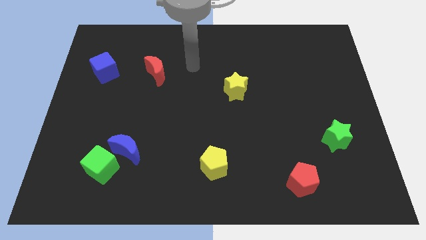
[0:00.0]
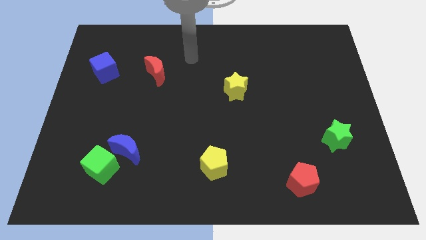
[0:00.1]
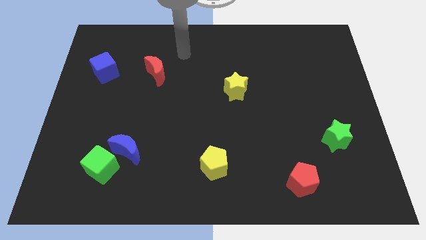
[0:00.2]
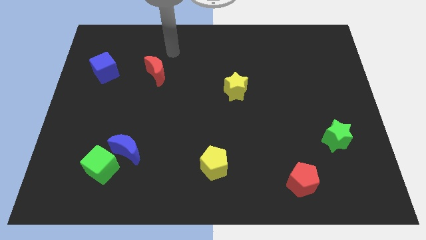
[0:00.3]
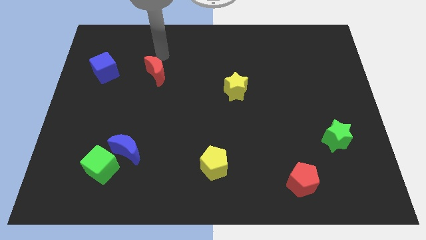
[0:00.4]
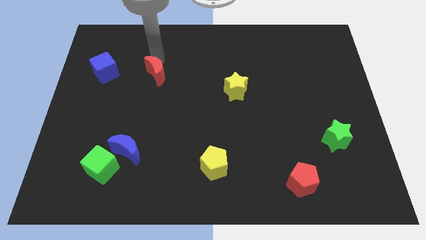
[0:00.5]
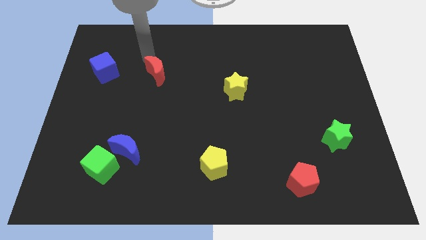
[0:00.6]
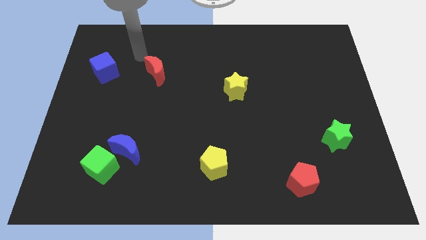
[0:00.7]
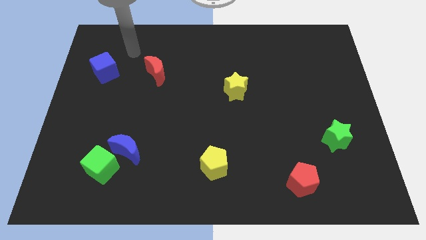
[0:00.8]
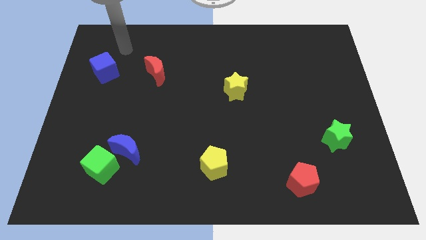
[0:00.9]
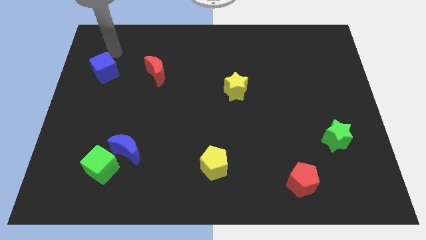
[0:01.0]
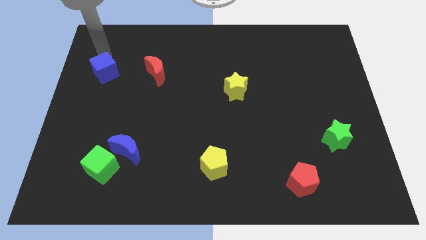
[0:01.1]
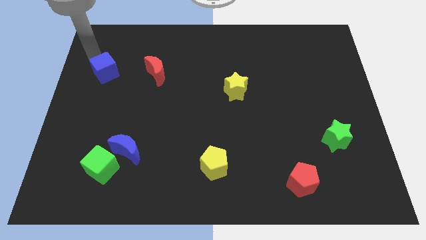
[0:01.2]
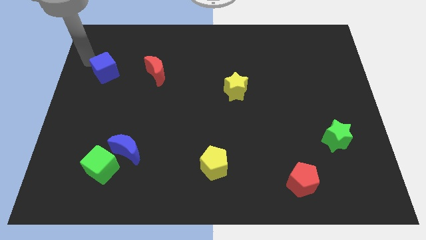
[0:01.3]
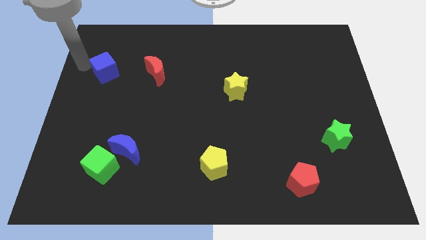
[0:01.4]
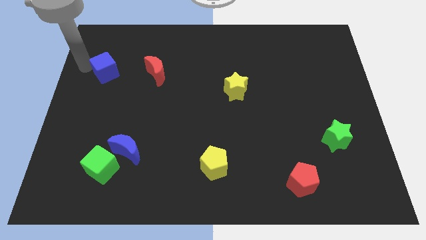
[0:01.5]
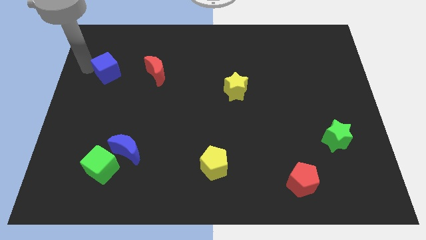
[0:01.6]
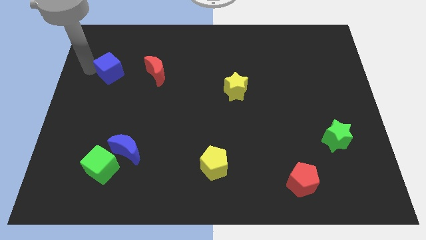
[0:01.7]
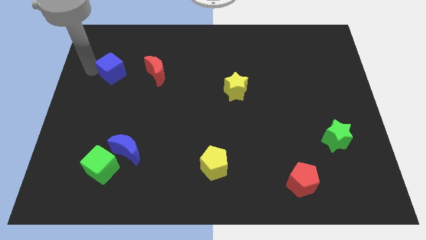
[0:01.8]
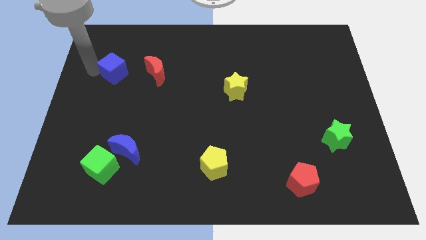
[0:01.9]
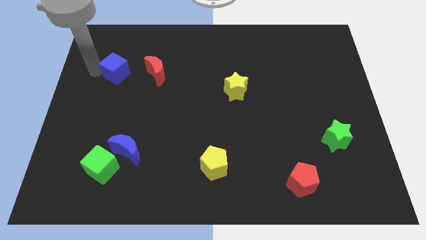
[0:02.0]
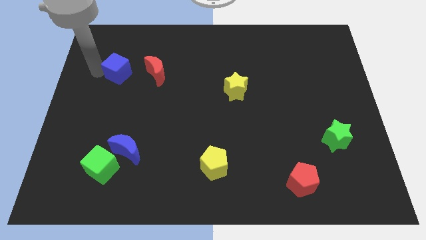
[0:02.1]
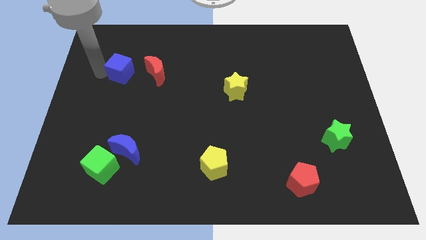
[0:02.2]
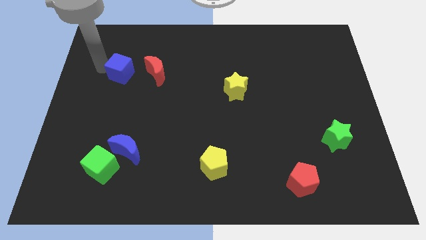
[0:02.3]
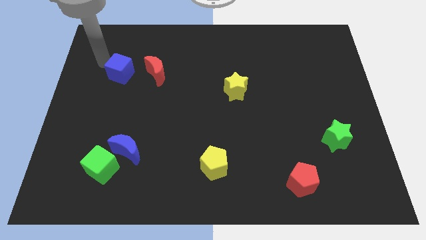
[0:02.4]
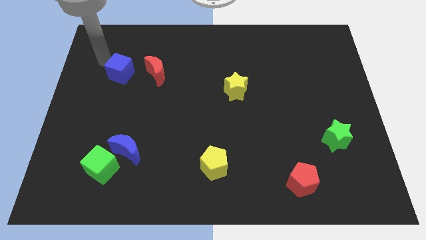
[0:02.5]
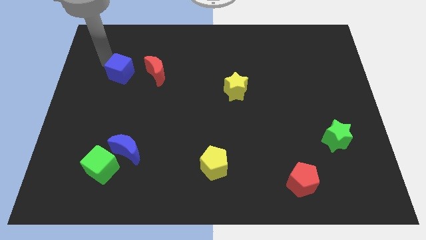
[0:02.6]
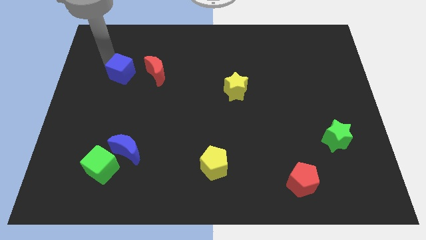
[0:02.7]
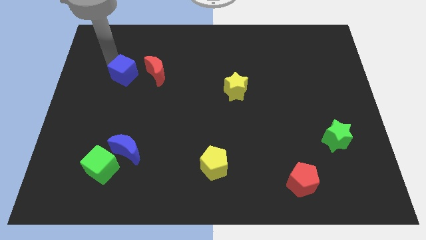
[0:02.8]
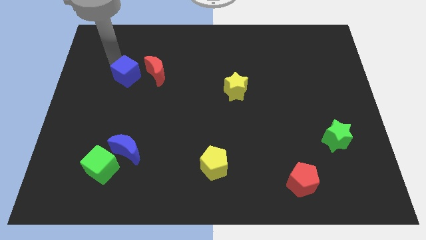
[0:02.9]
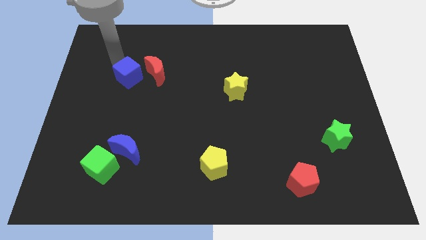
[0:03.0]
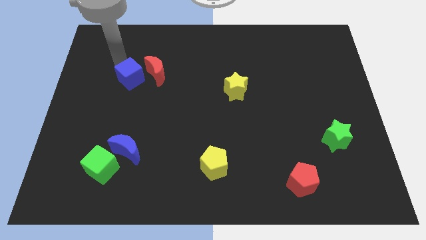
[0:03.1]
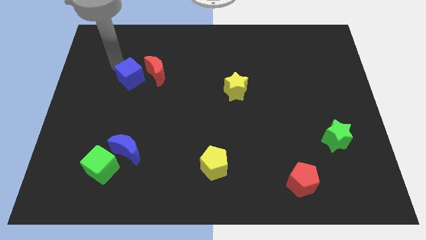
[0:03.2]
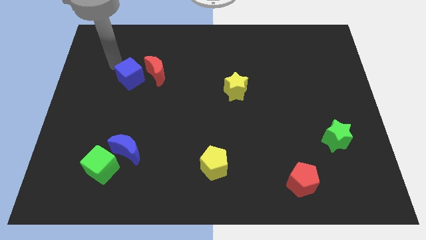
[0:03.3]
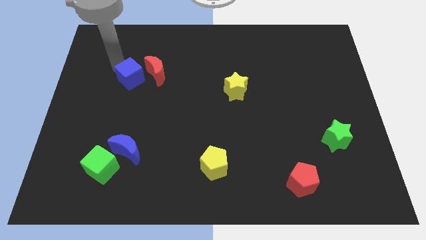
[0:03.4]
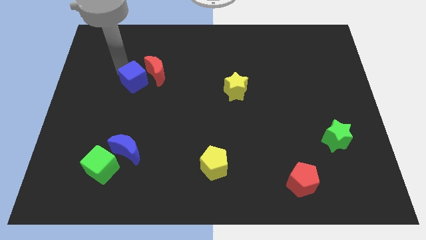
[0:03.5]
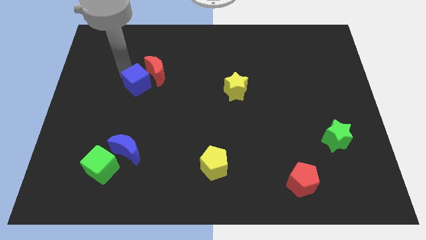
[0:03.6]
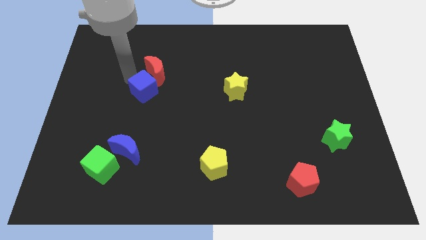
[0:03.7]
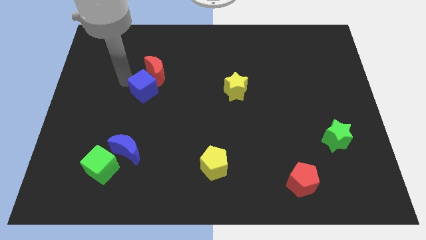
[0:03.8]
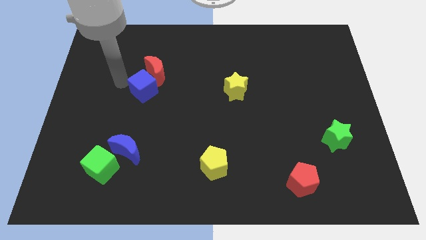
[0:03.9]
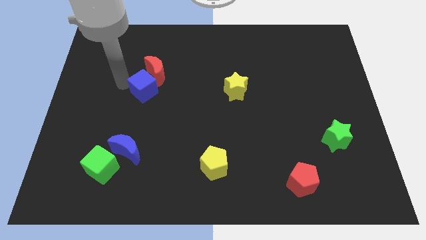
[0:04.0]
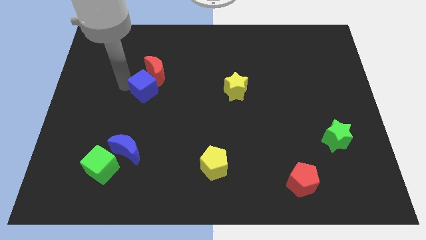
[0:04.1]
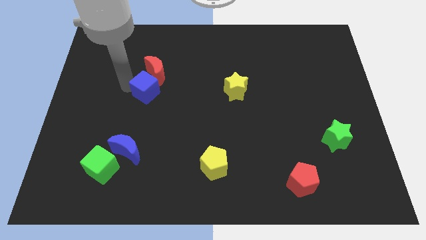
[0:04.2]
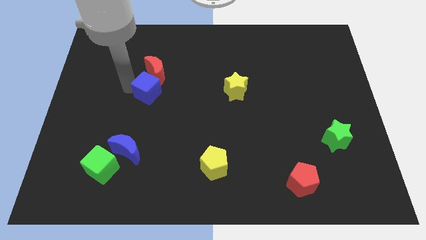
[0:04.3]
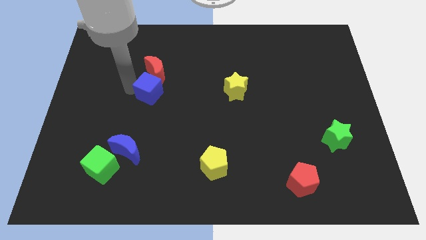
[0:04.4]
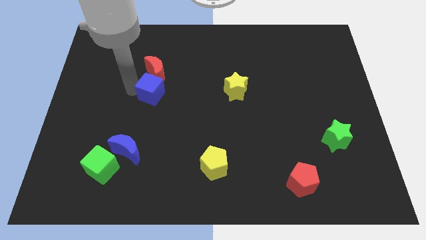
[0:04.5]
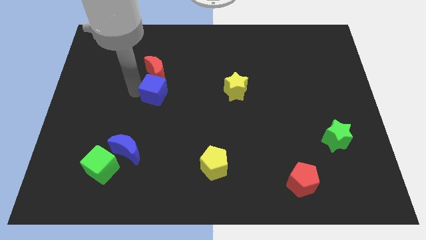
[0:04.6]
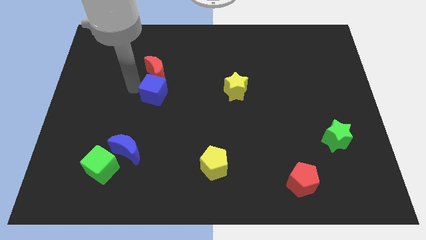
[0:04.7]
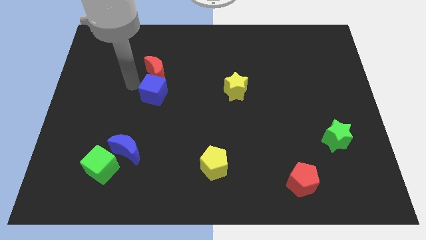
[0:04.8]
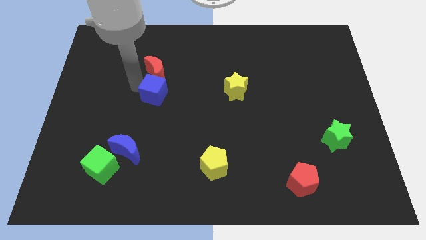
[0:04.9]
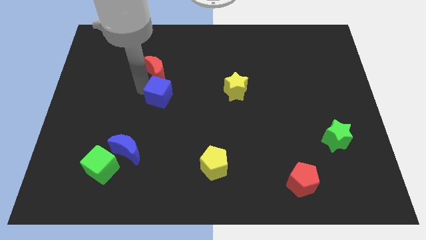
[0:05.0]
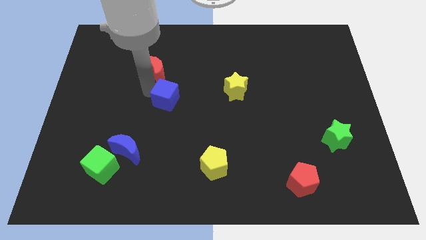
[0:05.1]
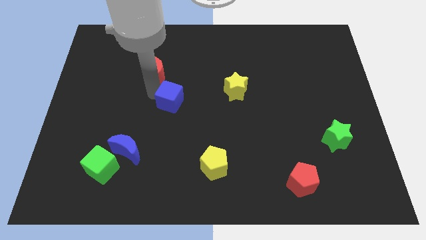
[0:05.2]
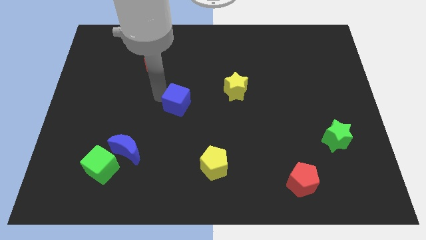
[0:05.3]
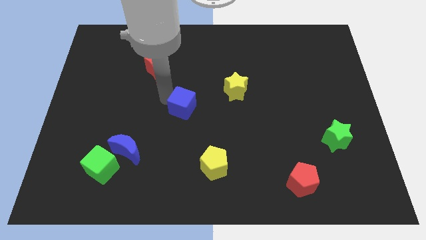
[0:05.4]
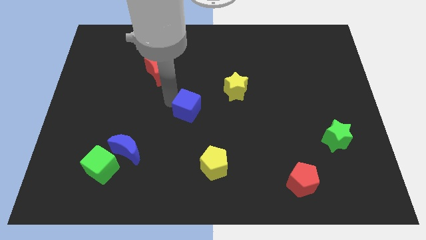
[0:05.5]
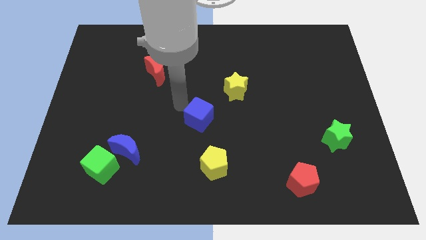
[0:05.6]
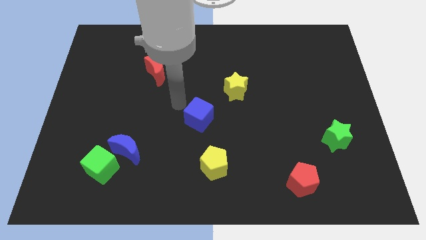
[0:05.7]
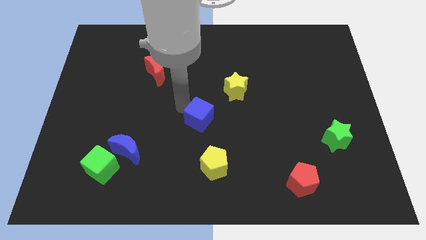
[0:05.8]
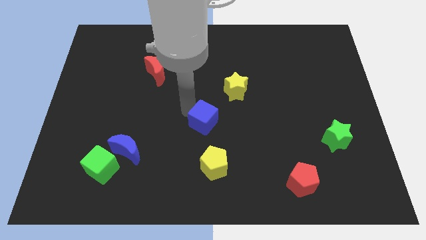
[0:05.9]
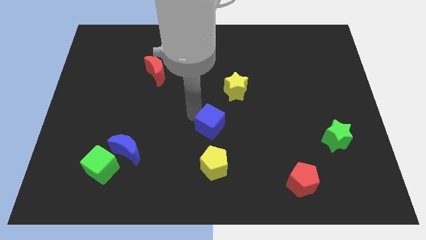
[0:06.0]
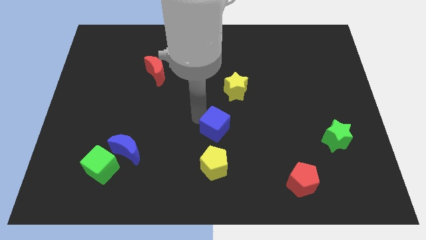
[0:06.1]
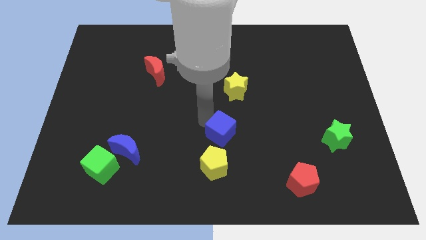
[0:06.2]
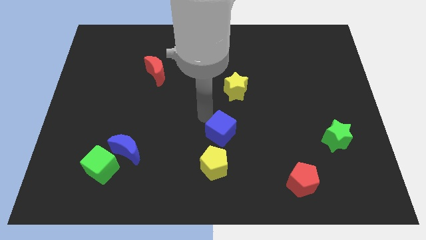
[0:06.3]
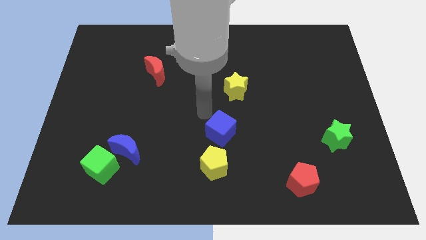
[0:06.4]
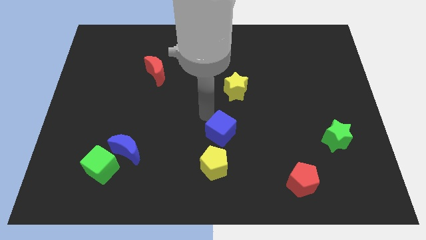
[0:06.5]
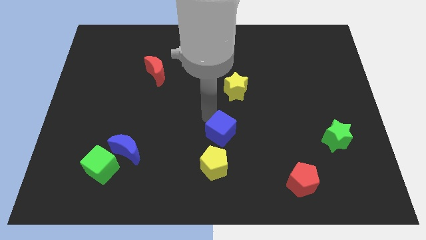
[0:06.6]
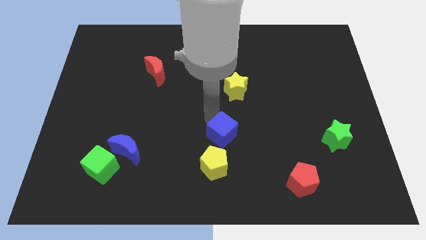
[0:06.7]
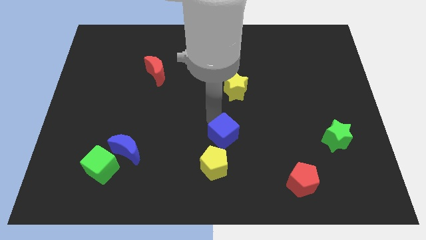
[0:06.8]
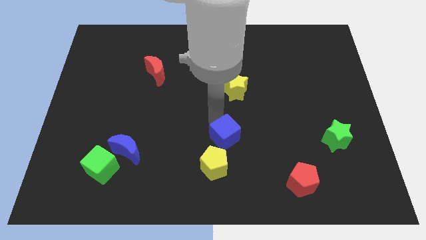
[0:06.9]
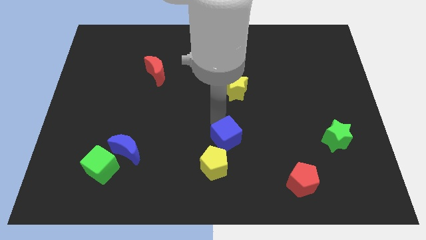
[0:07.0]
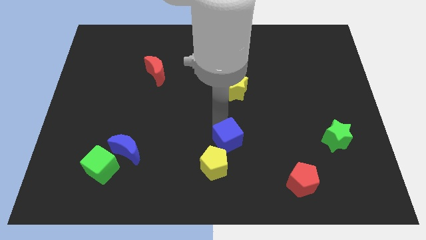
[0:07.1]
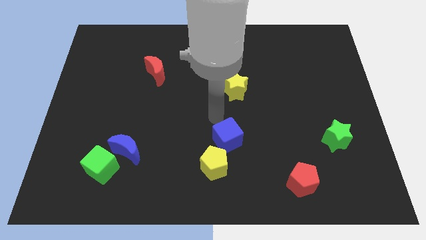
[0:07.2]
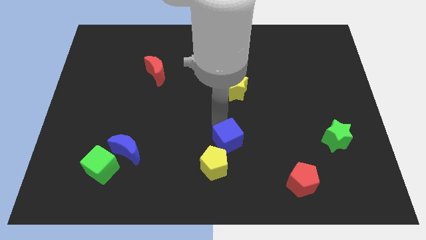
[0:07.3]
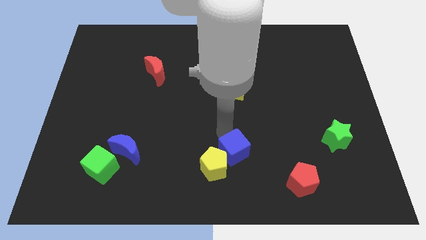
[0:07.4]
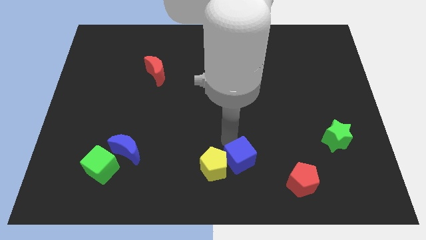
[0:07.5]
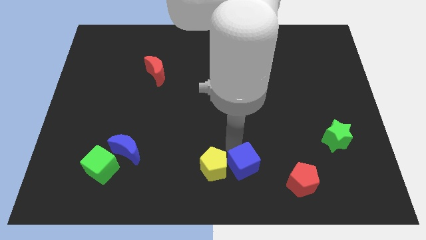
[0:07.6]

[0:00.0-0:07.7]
slide the blue cube to the left of the red pentagon

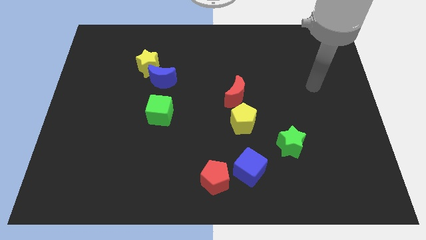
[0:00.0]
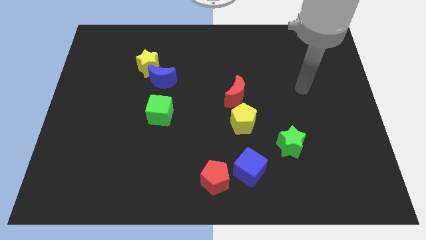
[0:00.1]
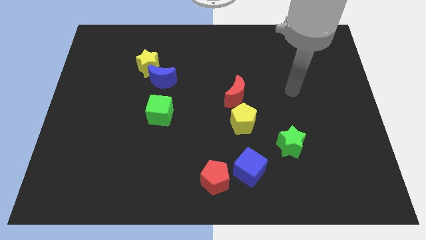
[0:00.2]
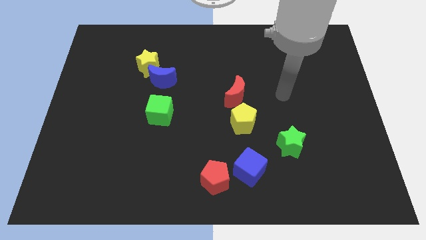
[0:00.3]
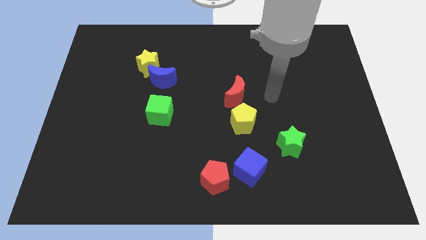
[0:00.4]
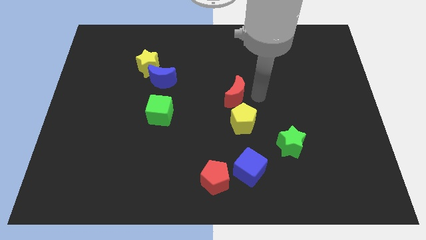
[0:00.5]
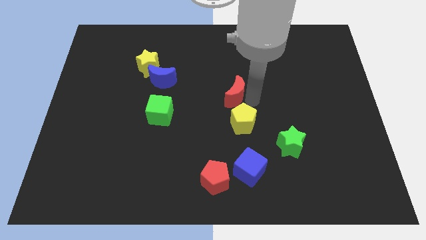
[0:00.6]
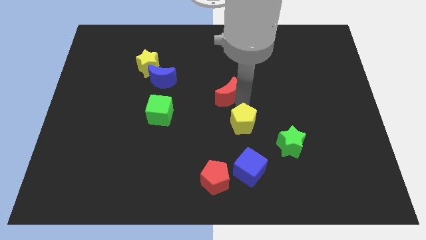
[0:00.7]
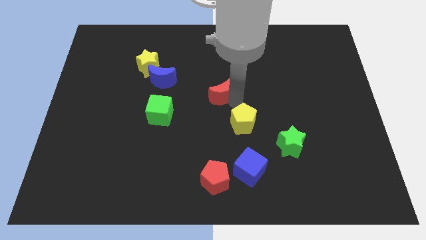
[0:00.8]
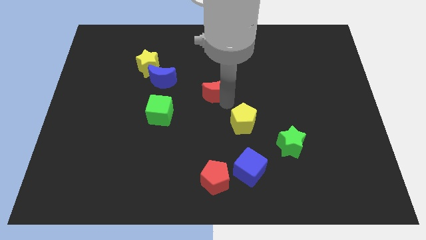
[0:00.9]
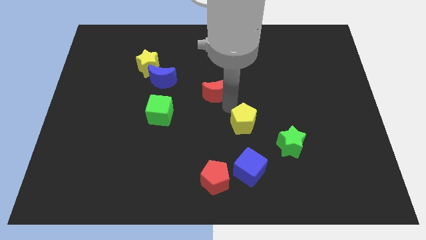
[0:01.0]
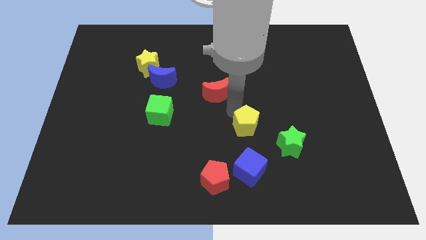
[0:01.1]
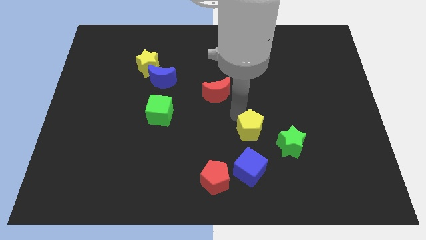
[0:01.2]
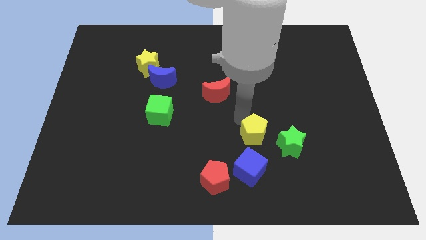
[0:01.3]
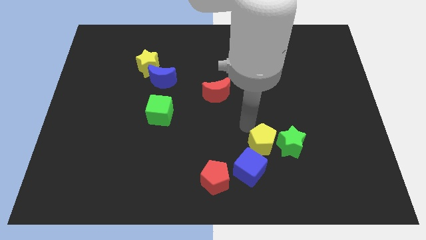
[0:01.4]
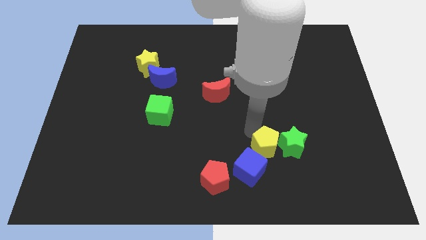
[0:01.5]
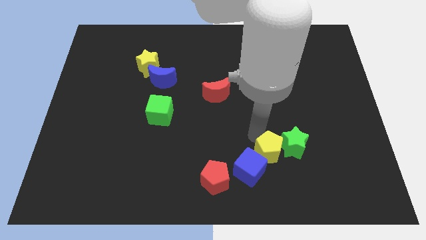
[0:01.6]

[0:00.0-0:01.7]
put the yellow pentagon to the right of the blue cube
